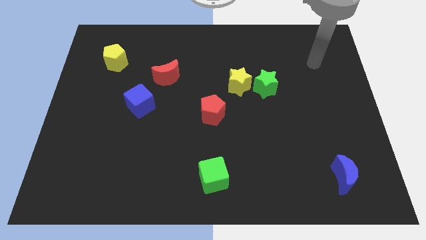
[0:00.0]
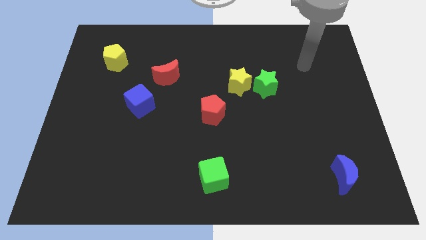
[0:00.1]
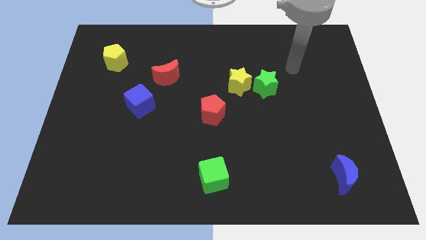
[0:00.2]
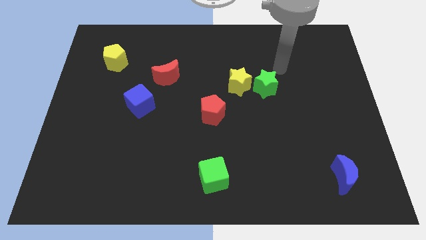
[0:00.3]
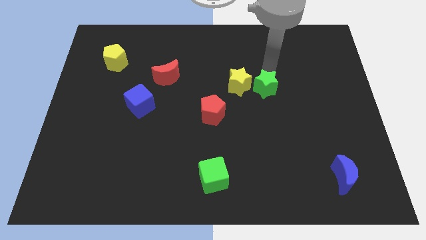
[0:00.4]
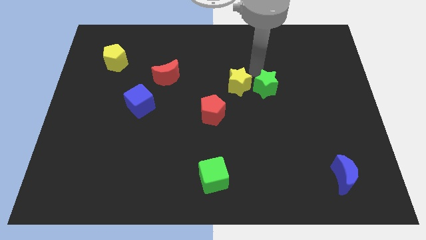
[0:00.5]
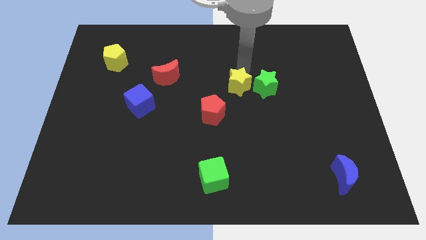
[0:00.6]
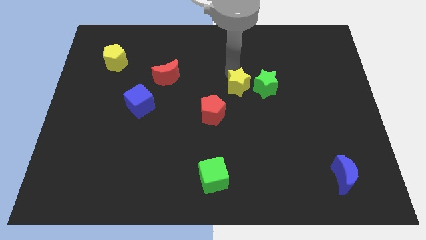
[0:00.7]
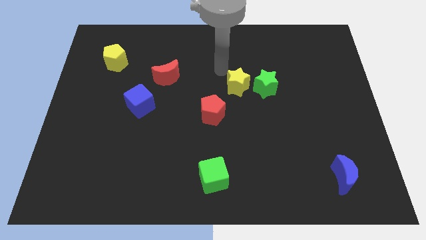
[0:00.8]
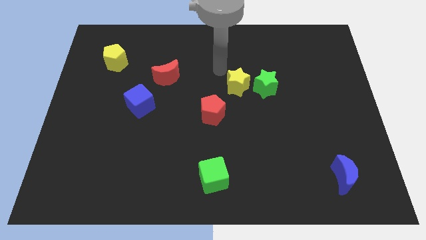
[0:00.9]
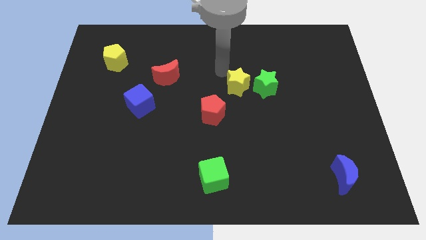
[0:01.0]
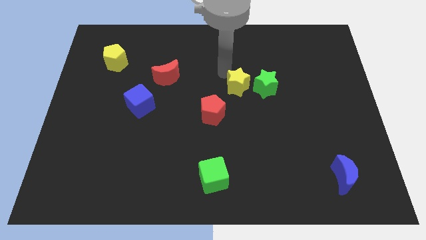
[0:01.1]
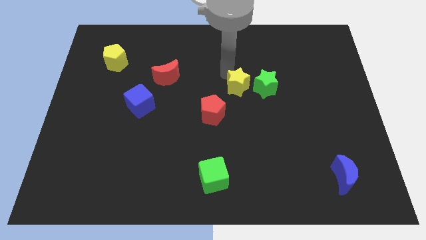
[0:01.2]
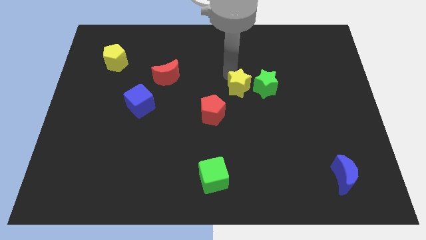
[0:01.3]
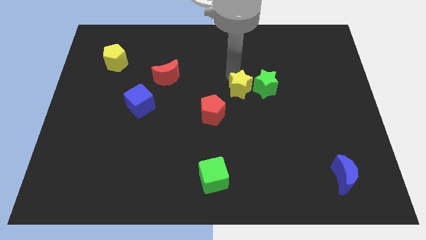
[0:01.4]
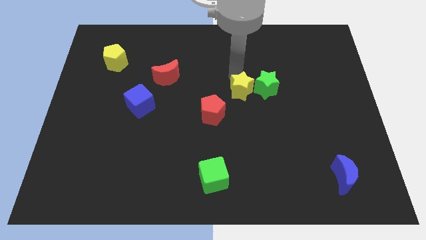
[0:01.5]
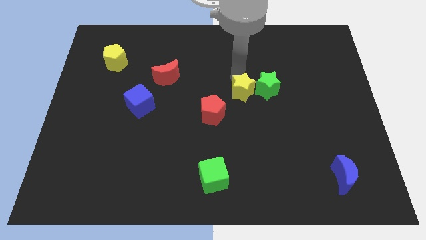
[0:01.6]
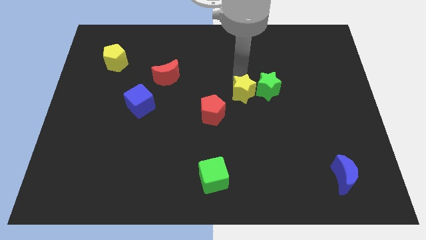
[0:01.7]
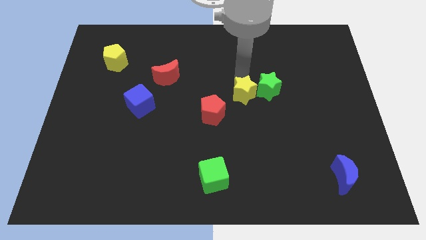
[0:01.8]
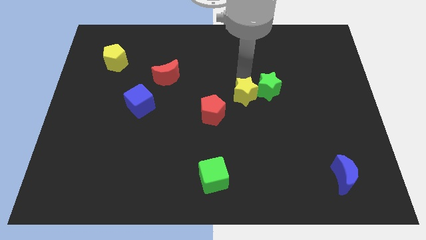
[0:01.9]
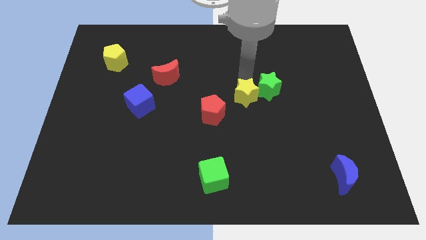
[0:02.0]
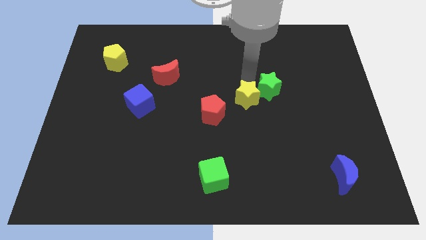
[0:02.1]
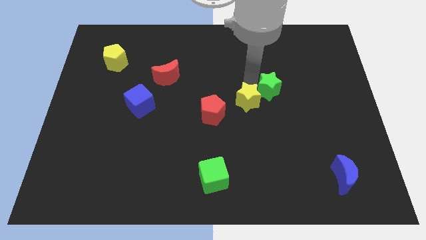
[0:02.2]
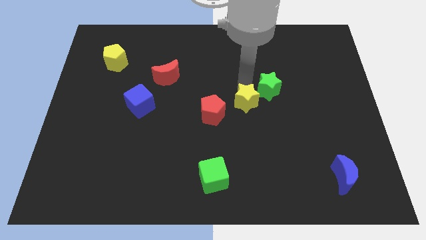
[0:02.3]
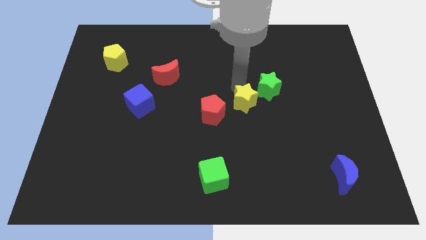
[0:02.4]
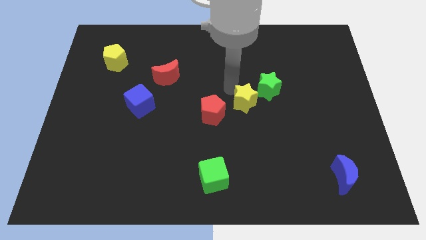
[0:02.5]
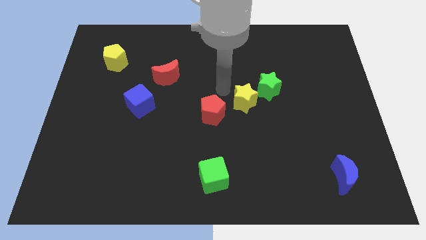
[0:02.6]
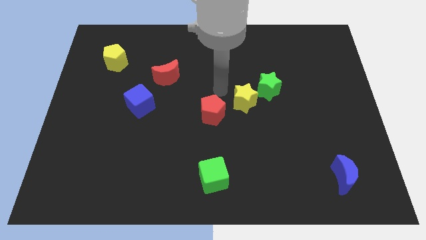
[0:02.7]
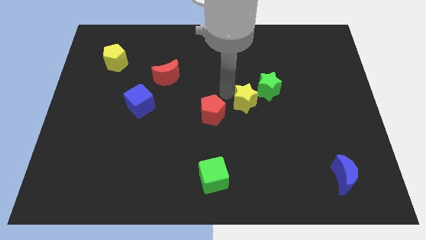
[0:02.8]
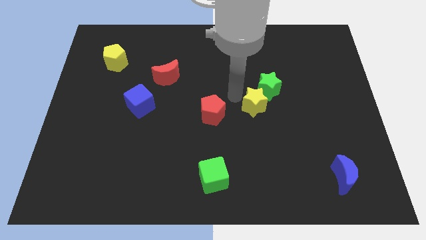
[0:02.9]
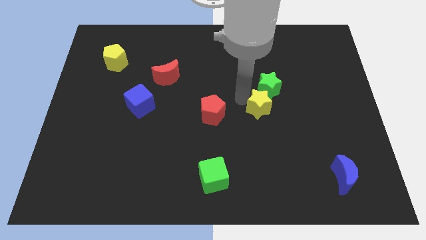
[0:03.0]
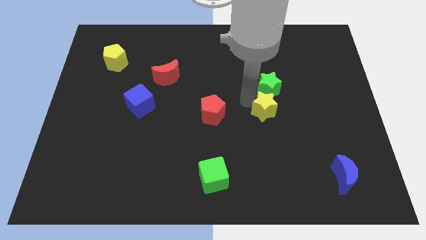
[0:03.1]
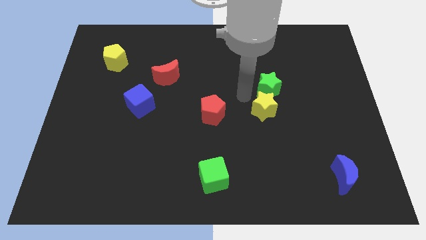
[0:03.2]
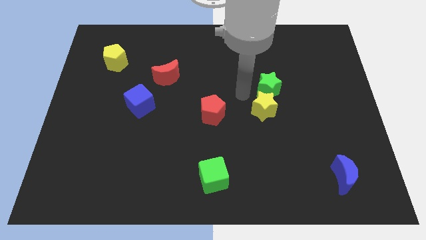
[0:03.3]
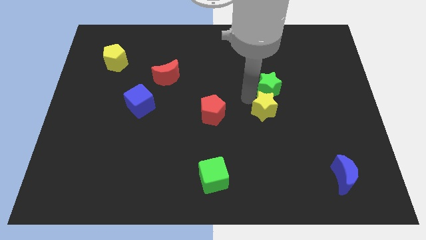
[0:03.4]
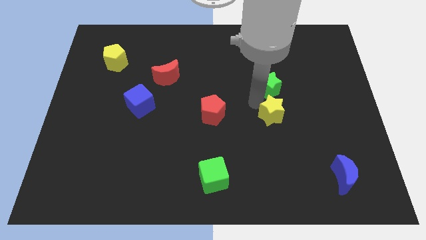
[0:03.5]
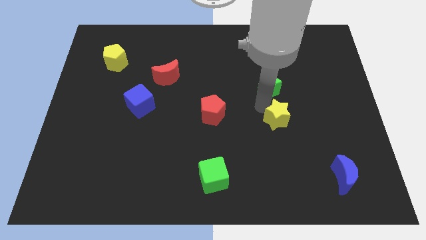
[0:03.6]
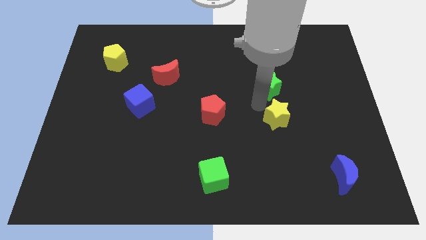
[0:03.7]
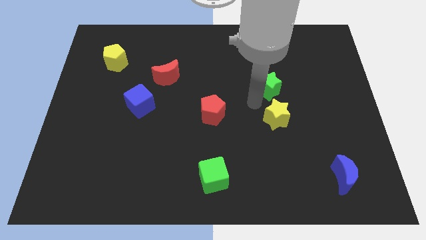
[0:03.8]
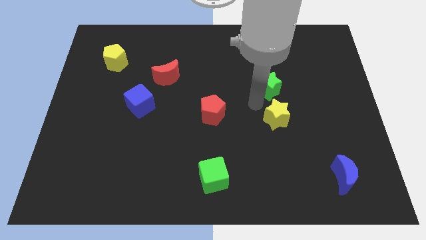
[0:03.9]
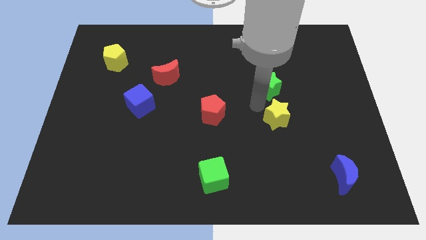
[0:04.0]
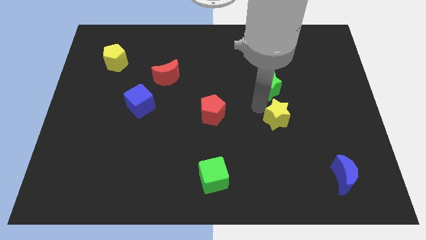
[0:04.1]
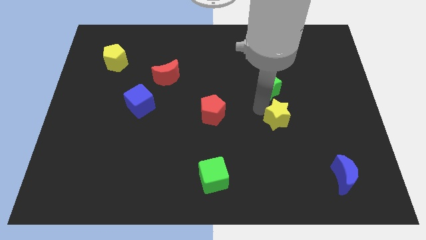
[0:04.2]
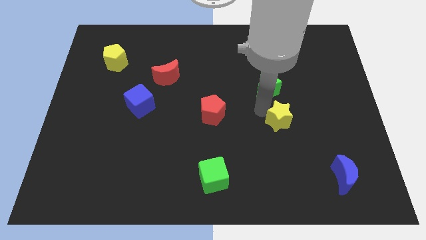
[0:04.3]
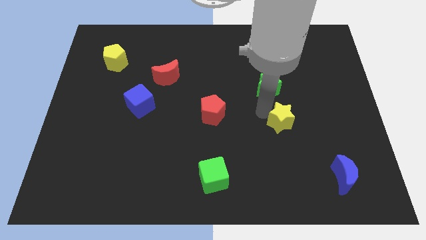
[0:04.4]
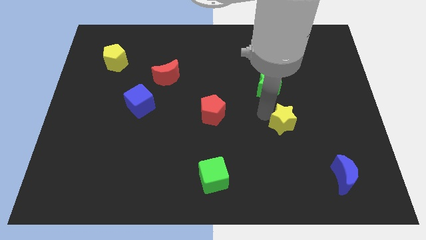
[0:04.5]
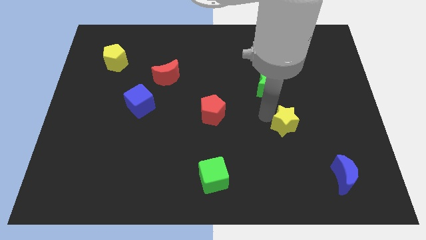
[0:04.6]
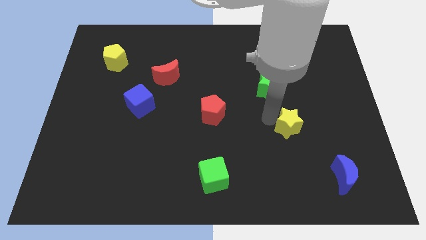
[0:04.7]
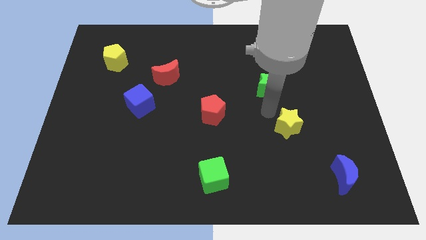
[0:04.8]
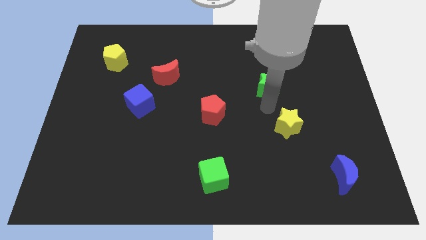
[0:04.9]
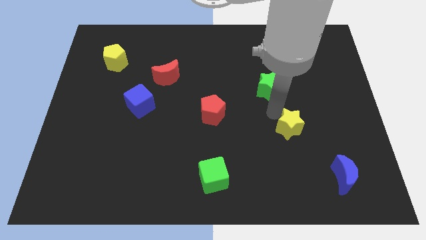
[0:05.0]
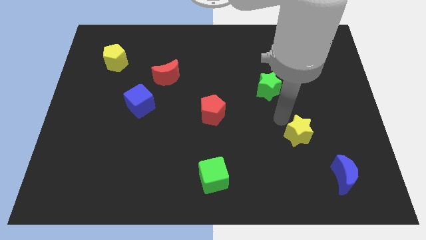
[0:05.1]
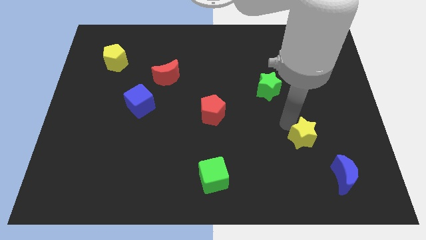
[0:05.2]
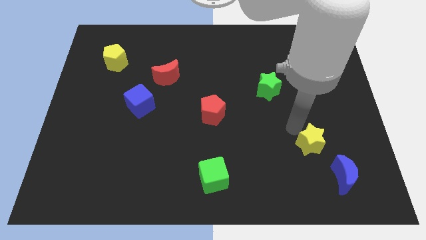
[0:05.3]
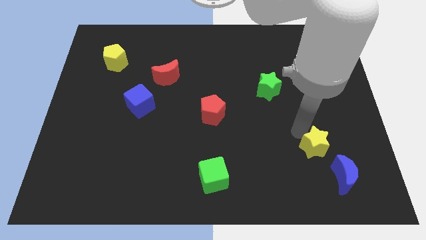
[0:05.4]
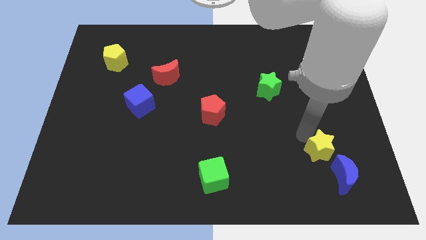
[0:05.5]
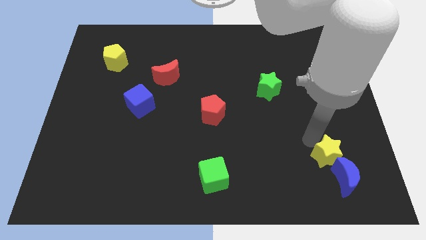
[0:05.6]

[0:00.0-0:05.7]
put the yellow star to the blue moon
